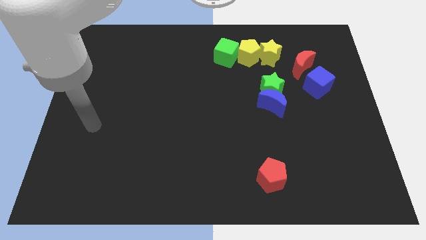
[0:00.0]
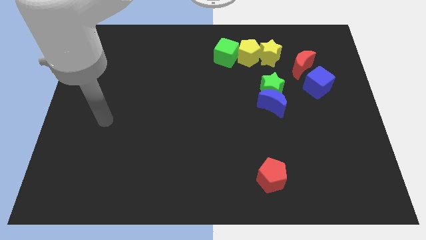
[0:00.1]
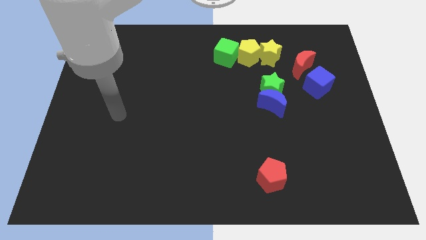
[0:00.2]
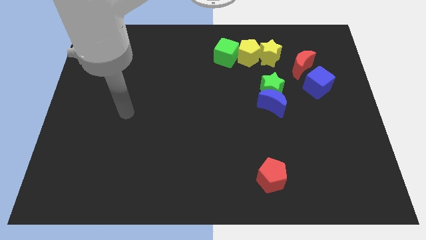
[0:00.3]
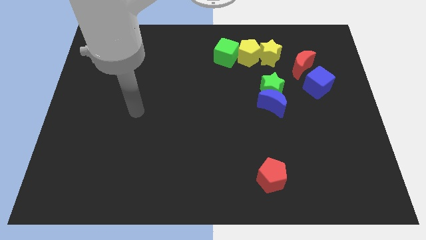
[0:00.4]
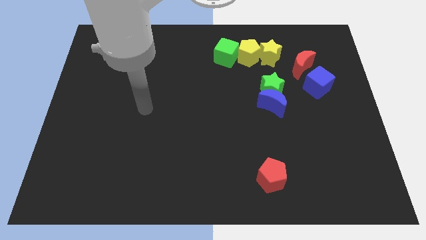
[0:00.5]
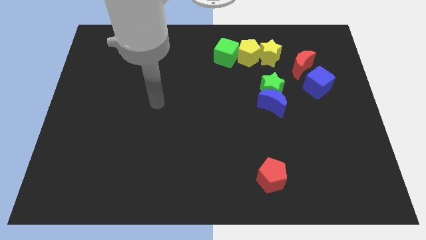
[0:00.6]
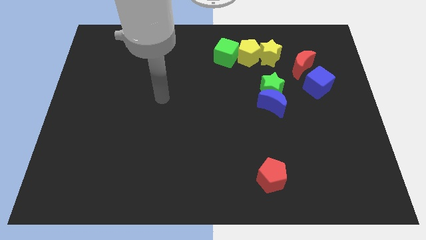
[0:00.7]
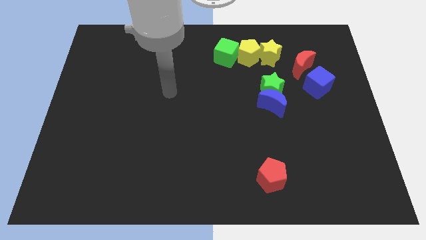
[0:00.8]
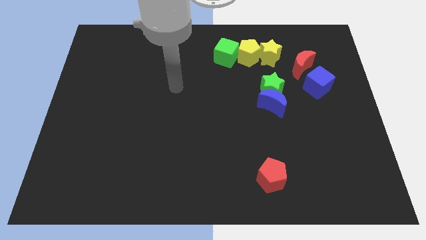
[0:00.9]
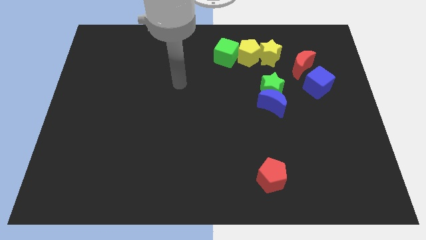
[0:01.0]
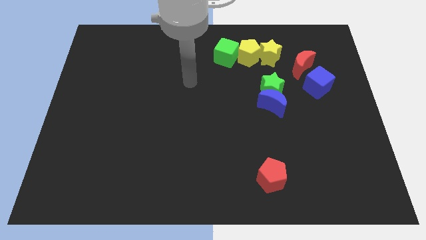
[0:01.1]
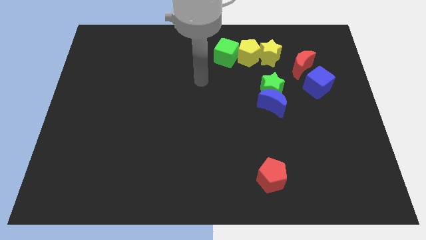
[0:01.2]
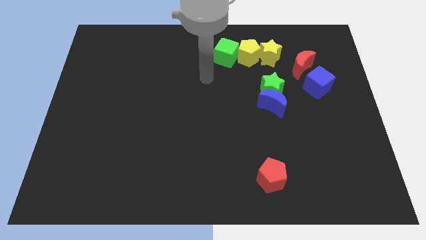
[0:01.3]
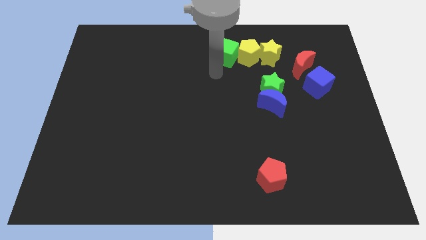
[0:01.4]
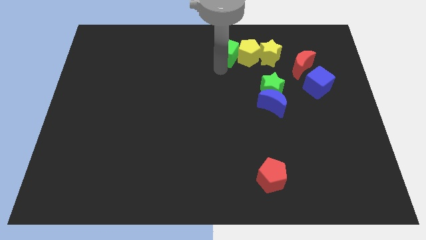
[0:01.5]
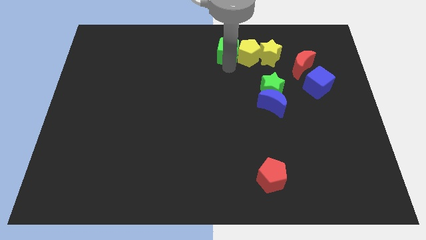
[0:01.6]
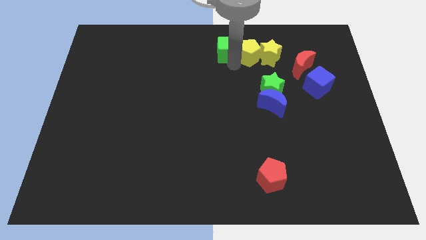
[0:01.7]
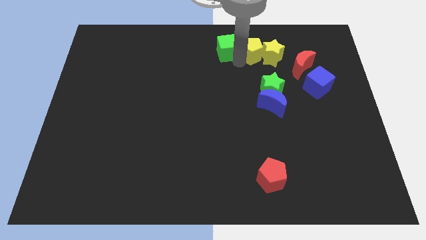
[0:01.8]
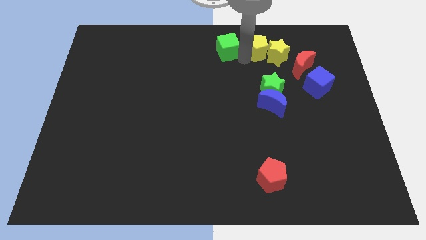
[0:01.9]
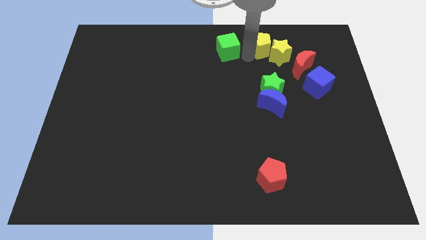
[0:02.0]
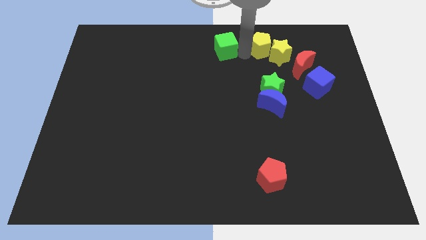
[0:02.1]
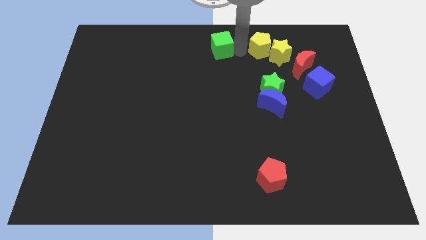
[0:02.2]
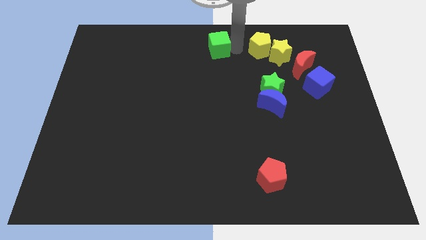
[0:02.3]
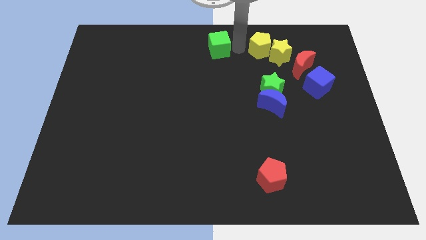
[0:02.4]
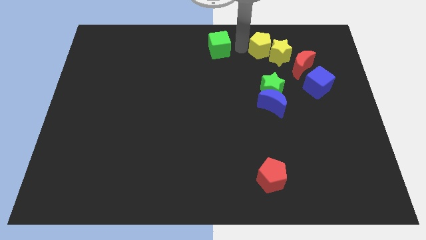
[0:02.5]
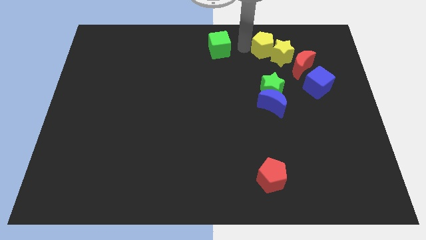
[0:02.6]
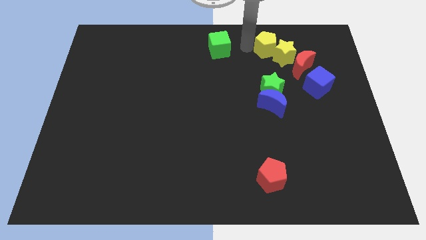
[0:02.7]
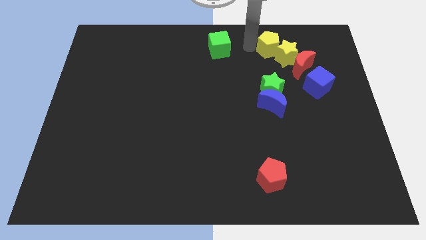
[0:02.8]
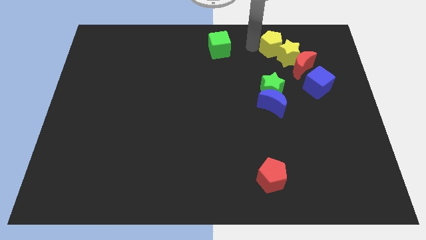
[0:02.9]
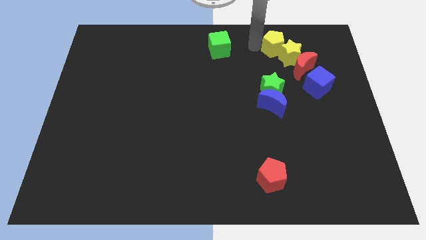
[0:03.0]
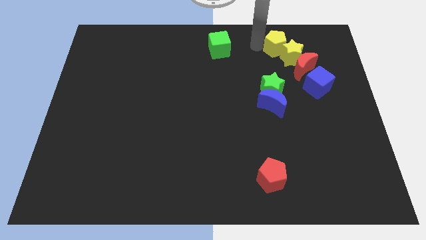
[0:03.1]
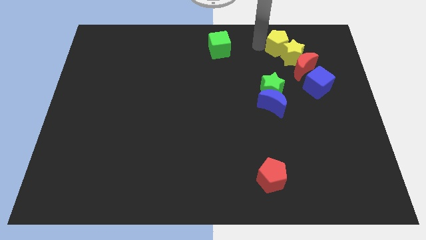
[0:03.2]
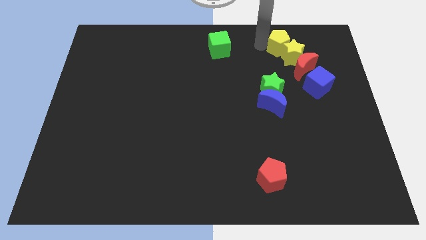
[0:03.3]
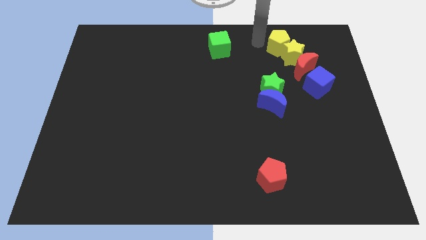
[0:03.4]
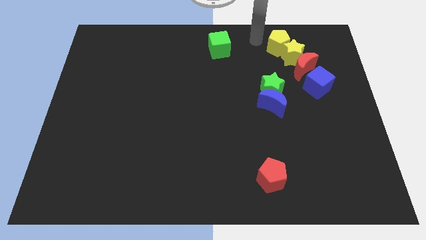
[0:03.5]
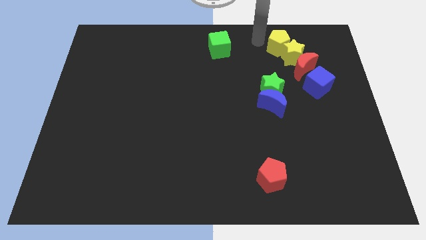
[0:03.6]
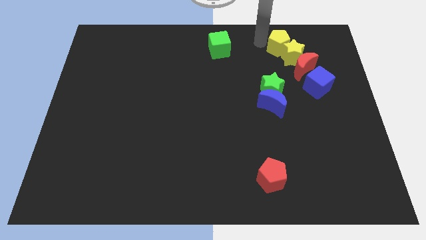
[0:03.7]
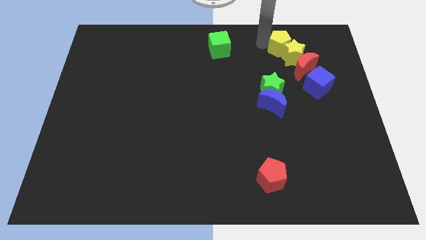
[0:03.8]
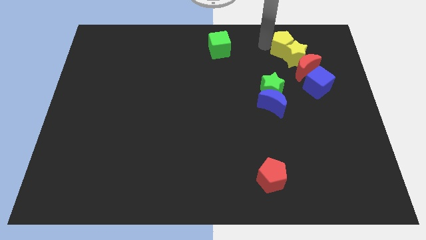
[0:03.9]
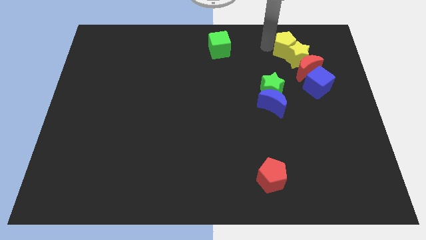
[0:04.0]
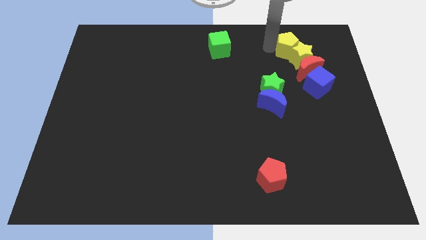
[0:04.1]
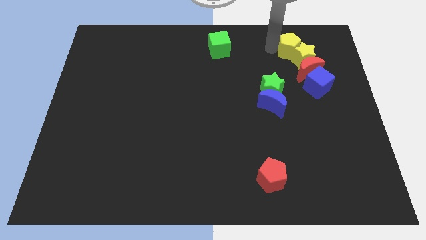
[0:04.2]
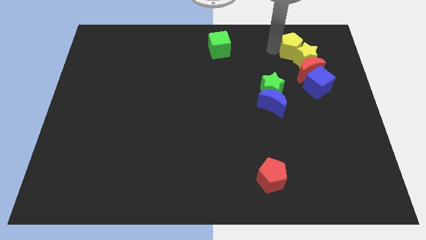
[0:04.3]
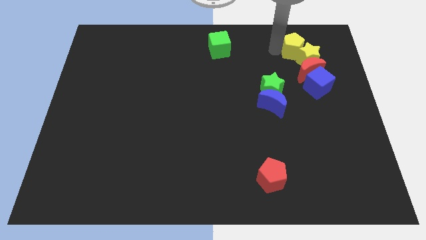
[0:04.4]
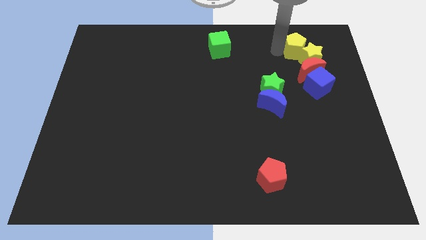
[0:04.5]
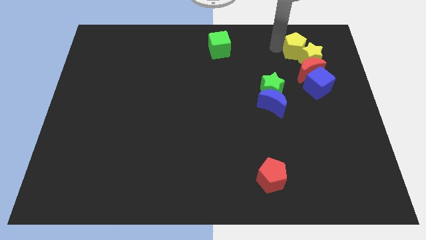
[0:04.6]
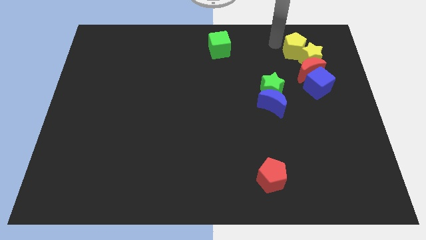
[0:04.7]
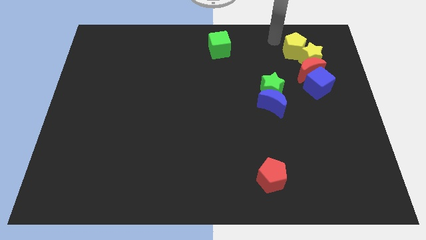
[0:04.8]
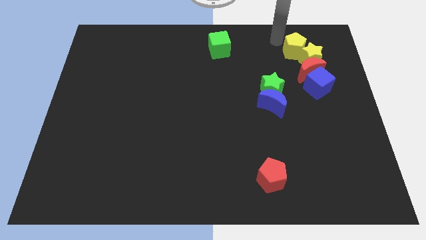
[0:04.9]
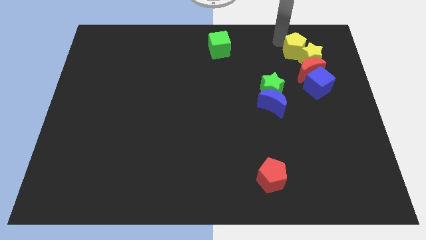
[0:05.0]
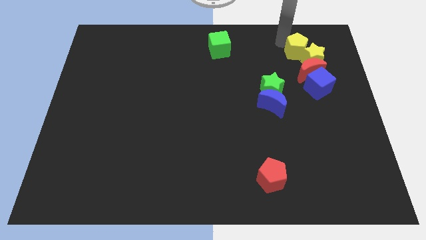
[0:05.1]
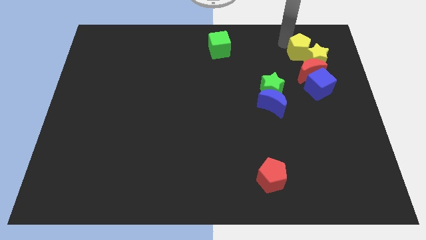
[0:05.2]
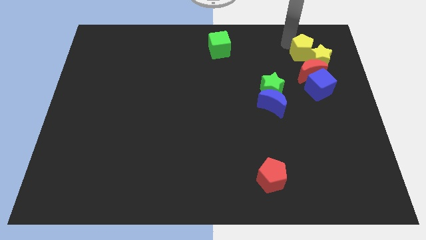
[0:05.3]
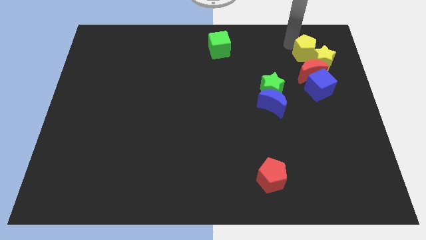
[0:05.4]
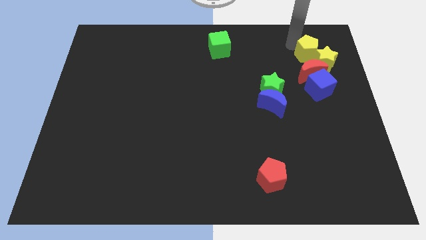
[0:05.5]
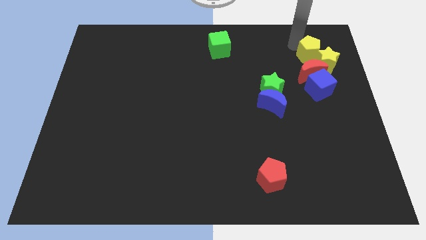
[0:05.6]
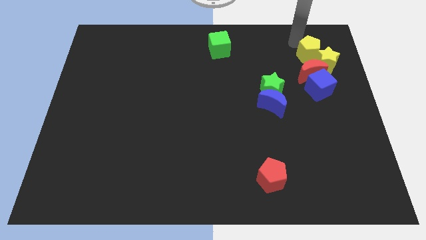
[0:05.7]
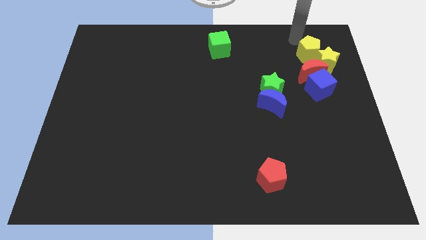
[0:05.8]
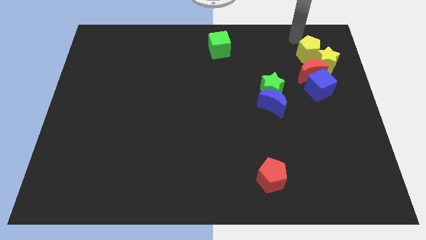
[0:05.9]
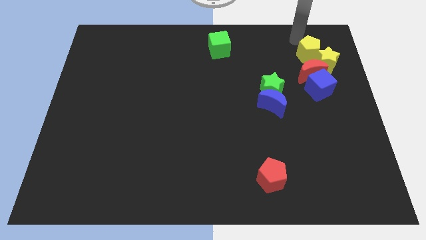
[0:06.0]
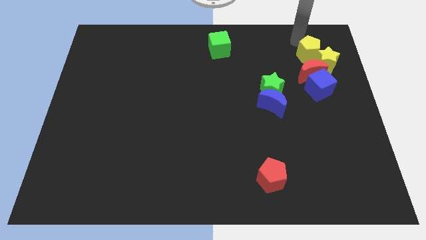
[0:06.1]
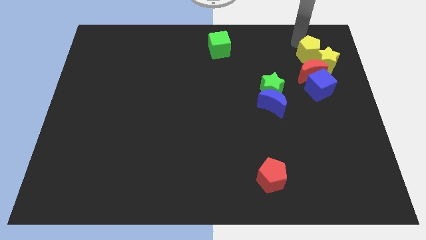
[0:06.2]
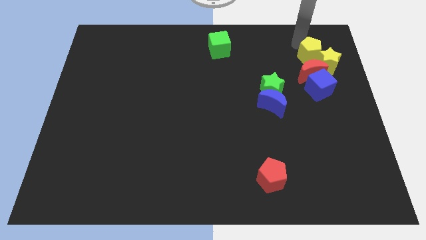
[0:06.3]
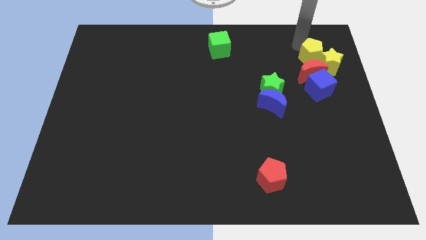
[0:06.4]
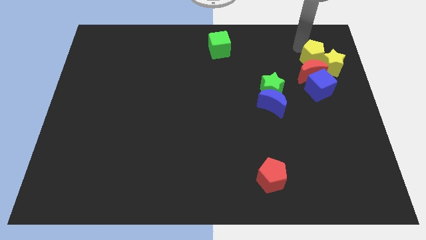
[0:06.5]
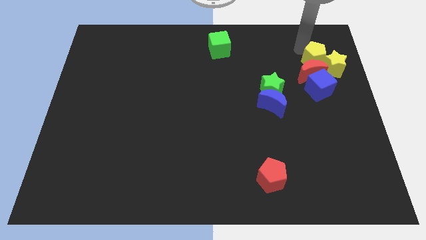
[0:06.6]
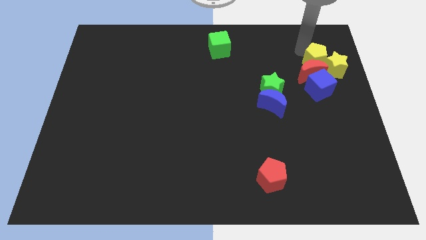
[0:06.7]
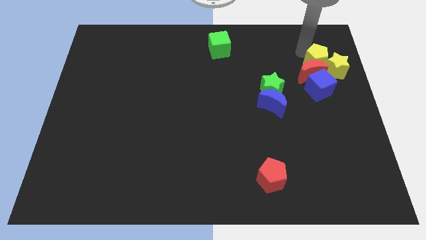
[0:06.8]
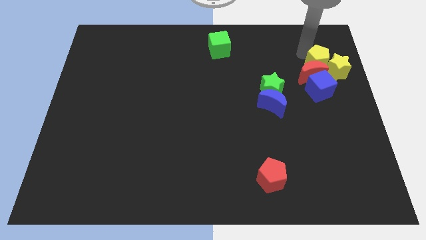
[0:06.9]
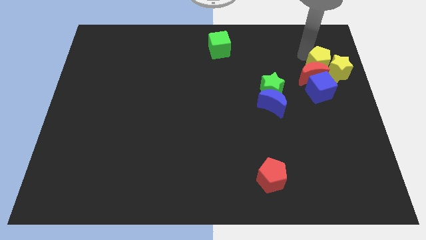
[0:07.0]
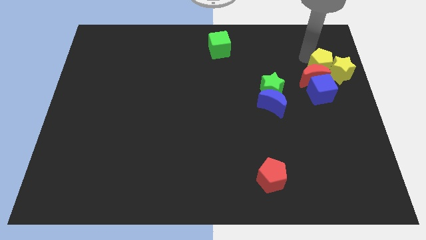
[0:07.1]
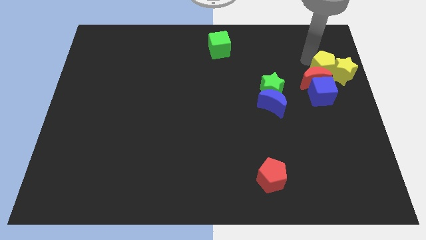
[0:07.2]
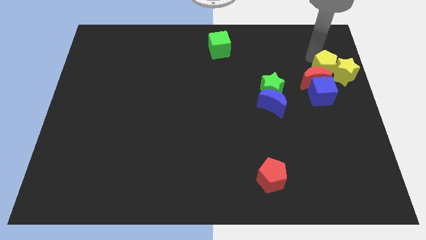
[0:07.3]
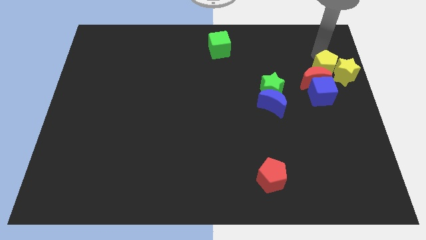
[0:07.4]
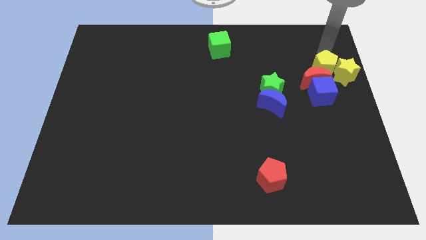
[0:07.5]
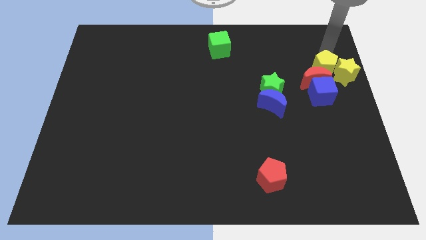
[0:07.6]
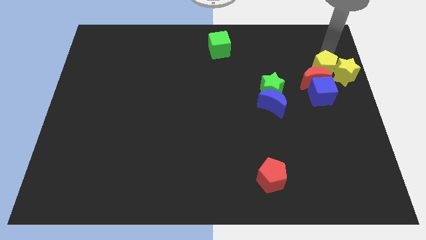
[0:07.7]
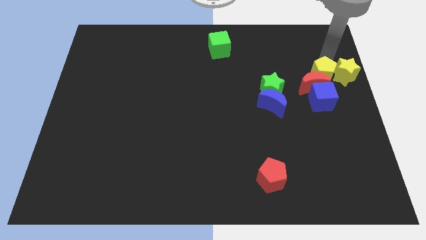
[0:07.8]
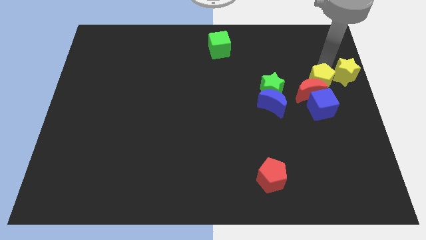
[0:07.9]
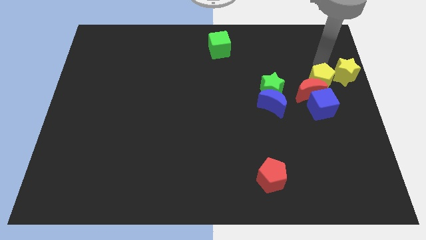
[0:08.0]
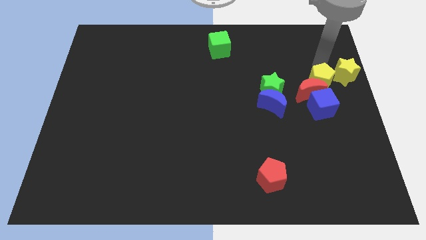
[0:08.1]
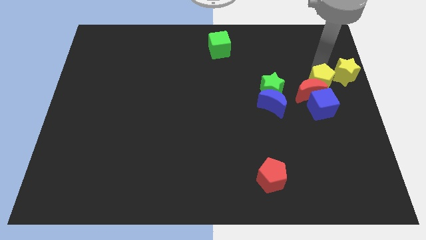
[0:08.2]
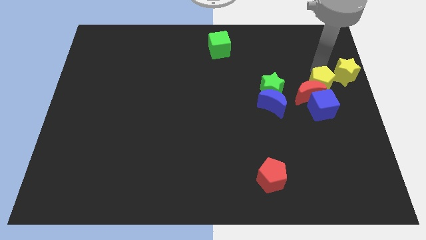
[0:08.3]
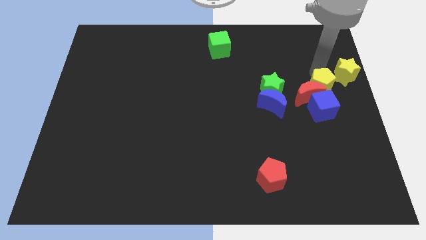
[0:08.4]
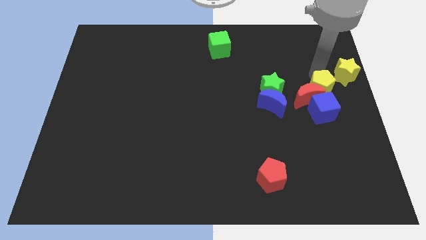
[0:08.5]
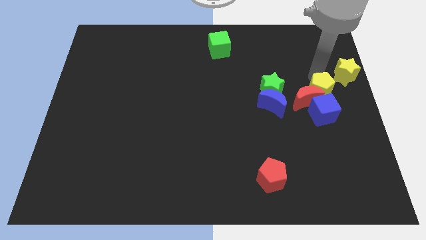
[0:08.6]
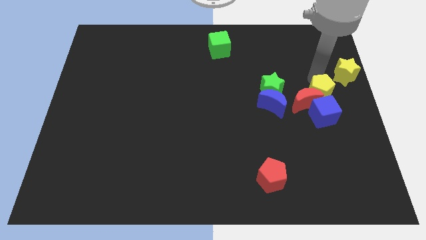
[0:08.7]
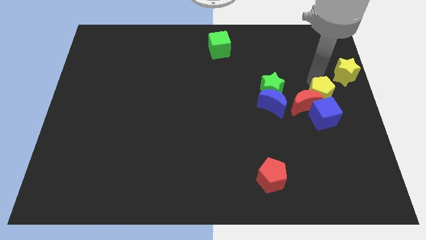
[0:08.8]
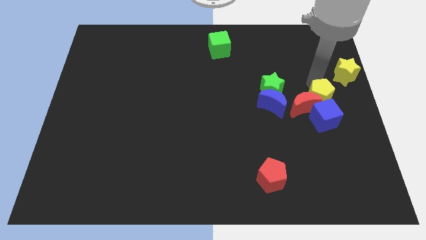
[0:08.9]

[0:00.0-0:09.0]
push the yellow pentagon to the blue cube
